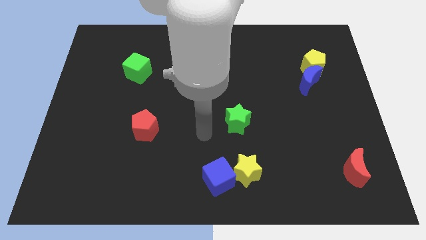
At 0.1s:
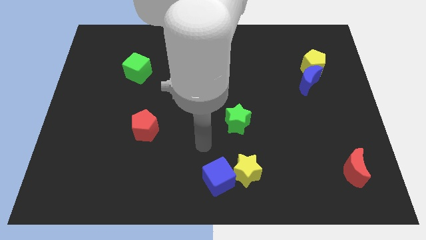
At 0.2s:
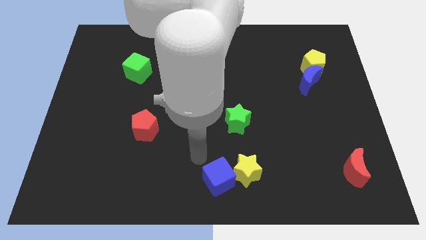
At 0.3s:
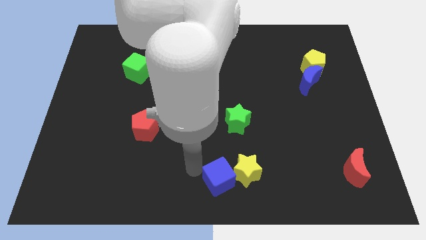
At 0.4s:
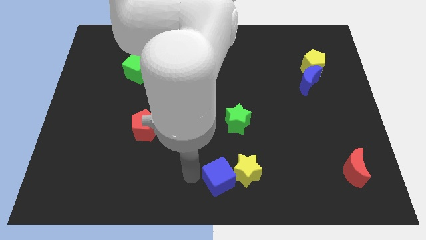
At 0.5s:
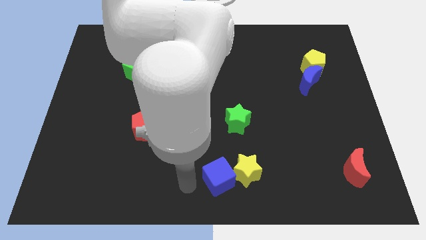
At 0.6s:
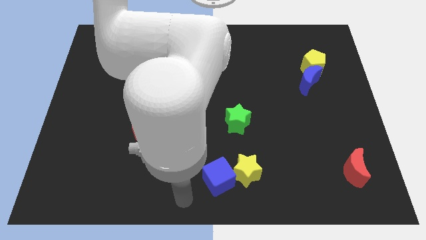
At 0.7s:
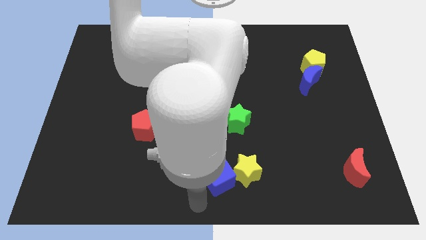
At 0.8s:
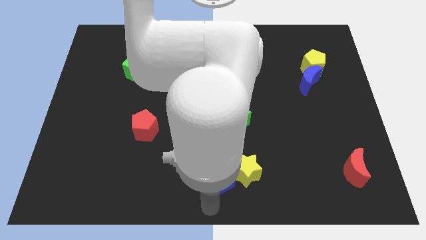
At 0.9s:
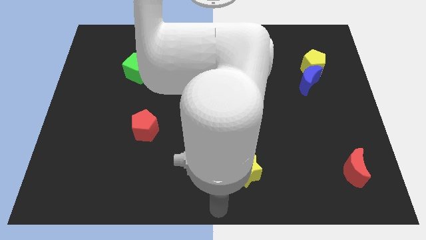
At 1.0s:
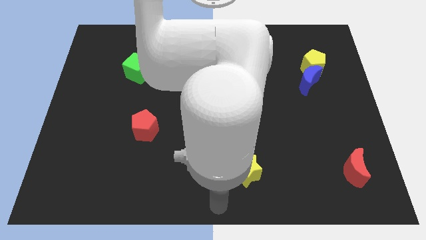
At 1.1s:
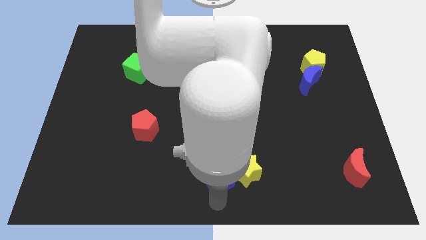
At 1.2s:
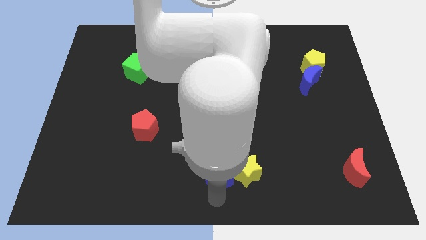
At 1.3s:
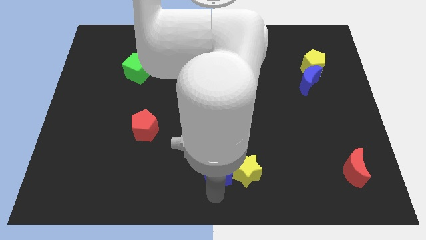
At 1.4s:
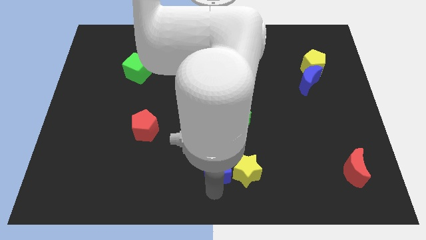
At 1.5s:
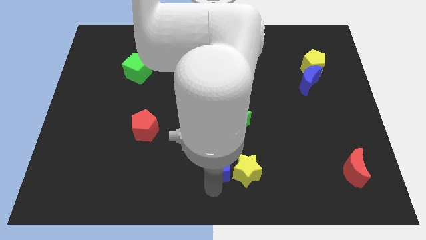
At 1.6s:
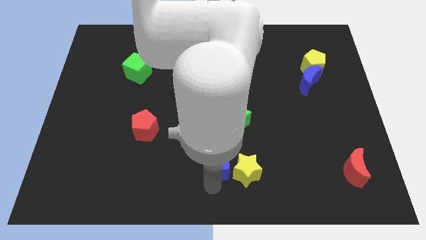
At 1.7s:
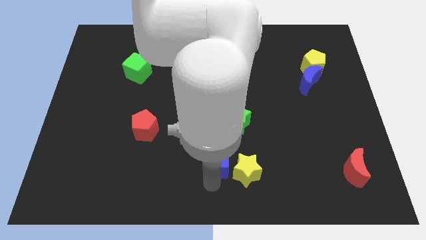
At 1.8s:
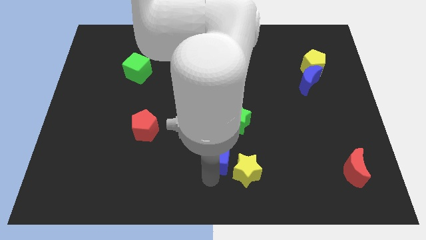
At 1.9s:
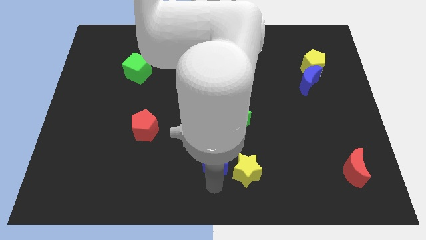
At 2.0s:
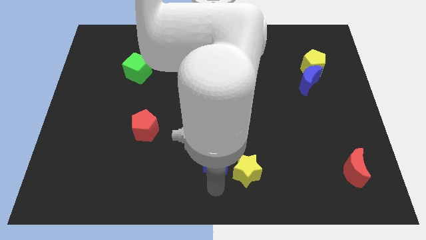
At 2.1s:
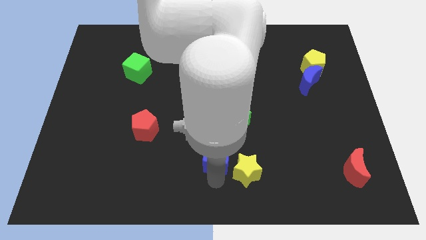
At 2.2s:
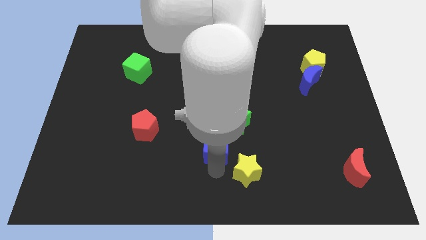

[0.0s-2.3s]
move the blue cube slightly upwards

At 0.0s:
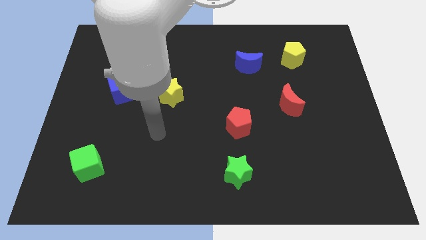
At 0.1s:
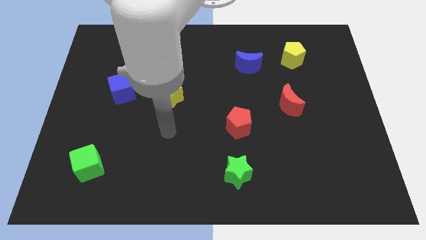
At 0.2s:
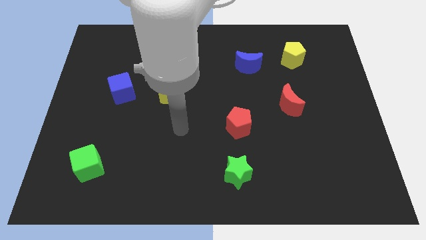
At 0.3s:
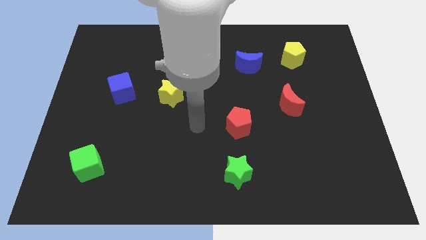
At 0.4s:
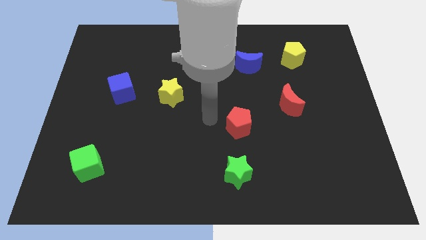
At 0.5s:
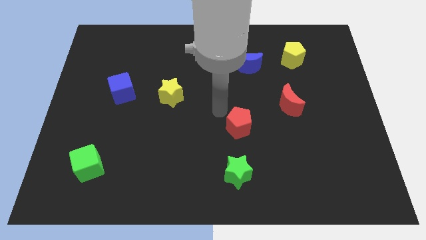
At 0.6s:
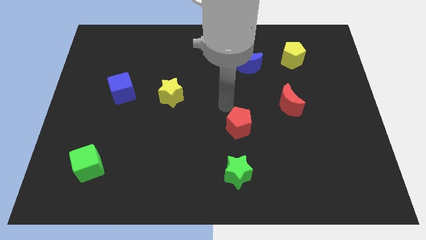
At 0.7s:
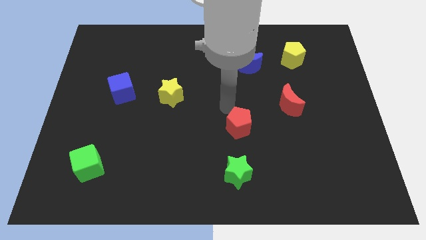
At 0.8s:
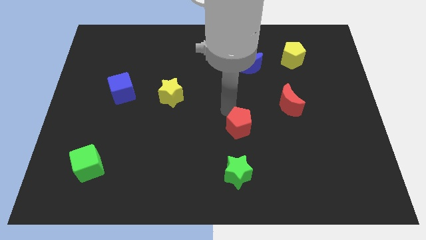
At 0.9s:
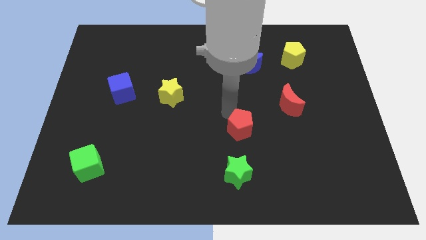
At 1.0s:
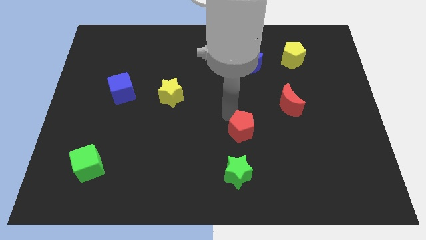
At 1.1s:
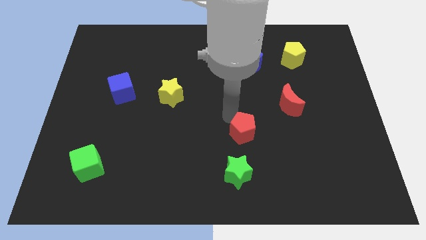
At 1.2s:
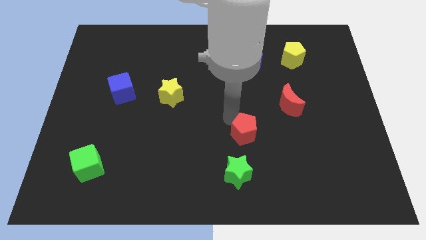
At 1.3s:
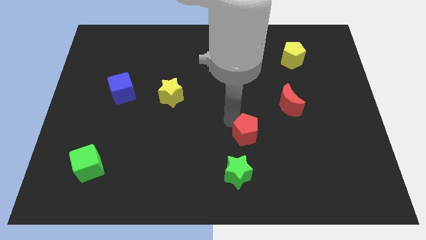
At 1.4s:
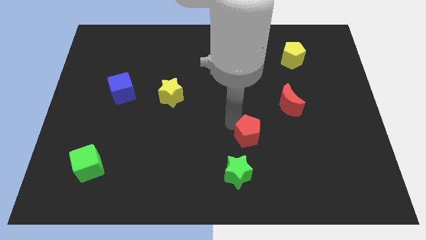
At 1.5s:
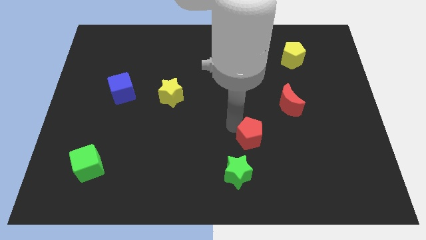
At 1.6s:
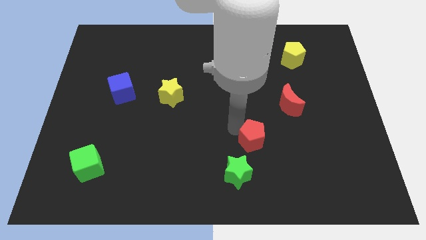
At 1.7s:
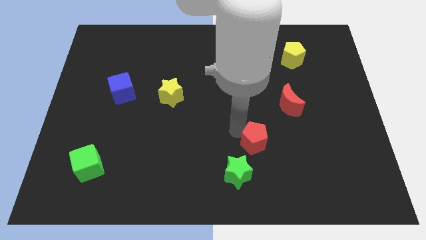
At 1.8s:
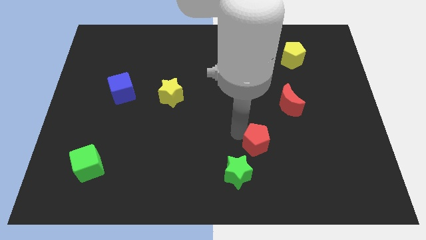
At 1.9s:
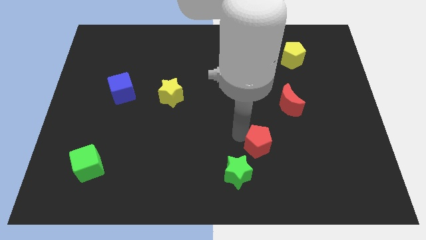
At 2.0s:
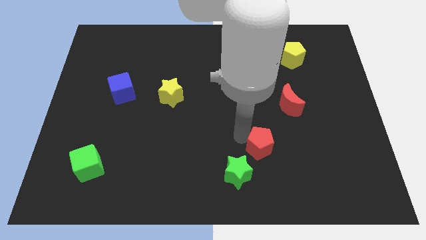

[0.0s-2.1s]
slide the red pentagon somewhat downwards and then to the right

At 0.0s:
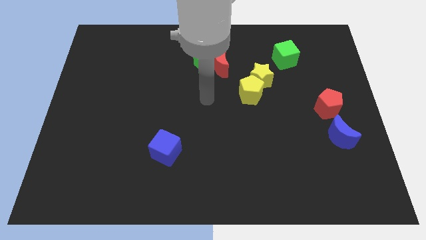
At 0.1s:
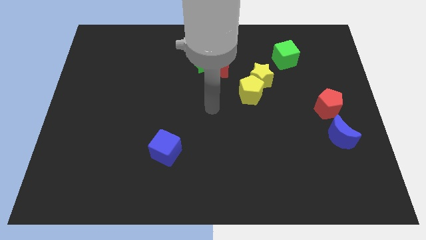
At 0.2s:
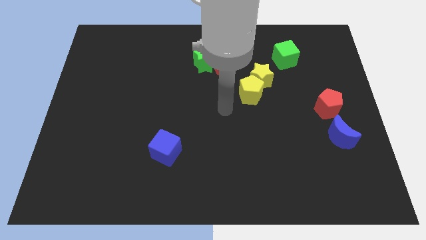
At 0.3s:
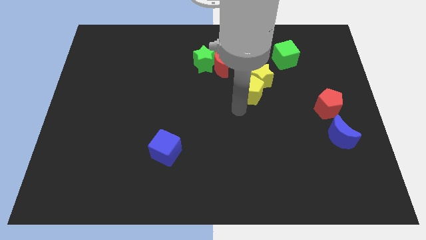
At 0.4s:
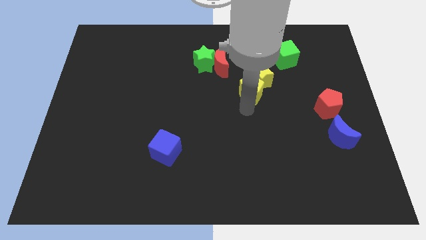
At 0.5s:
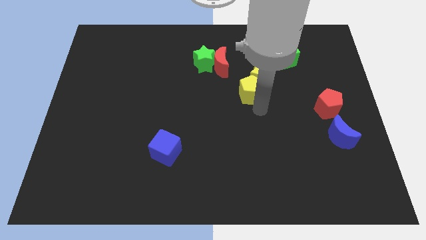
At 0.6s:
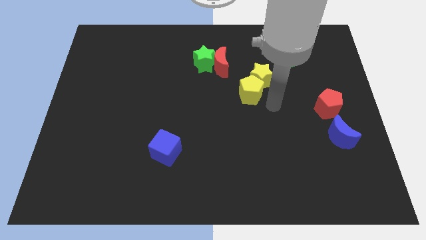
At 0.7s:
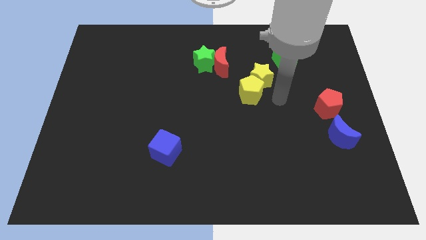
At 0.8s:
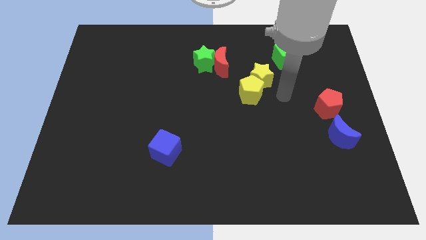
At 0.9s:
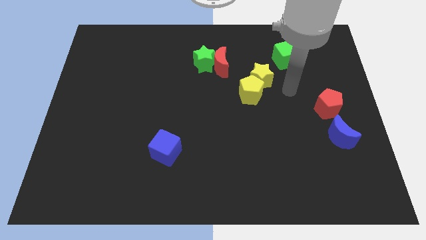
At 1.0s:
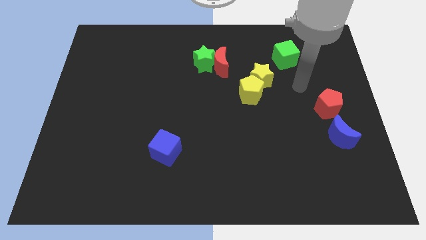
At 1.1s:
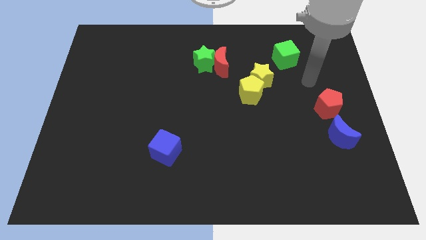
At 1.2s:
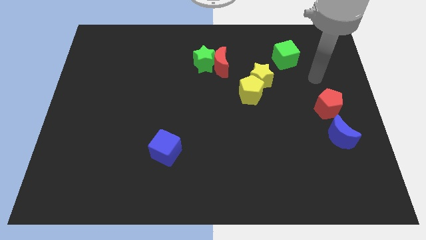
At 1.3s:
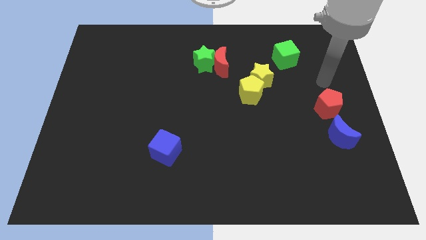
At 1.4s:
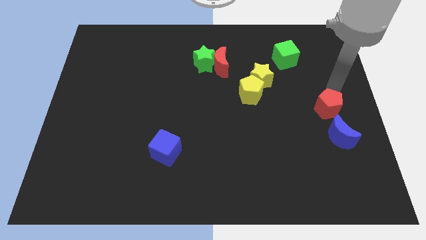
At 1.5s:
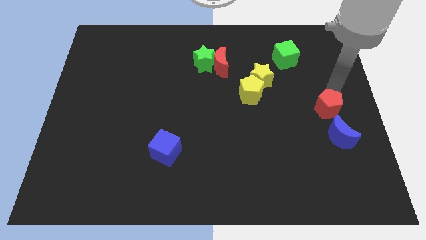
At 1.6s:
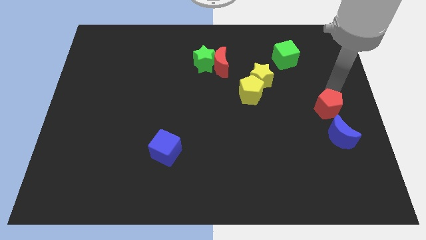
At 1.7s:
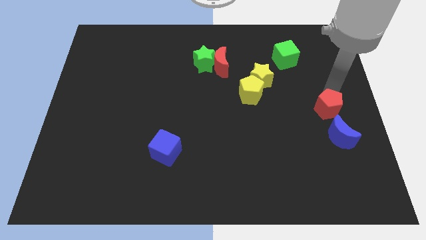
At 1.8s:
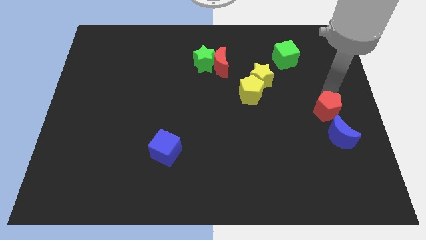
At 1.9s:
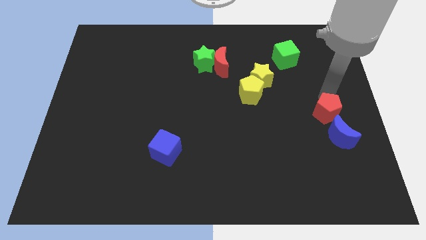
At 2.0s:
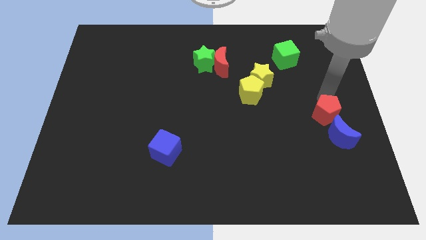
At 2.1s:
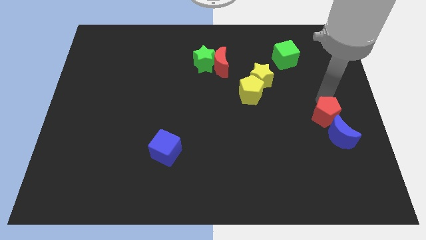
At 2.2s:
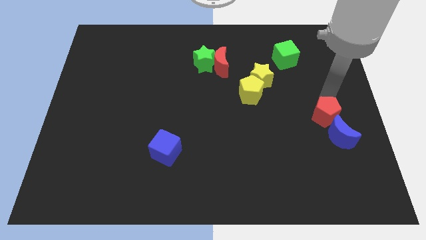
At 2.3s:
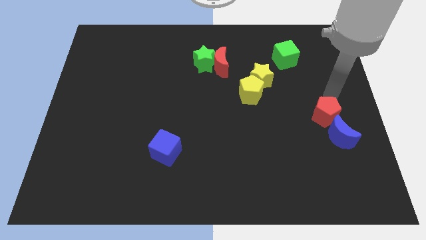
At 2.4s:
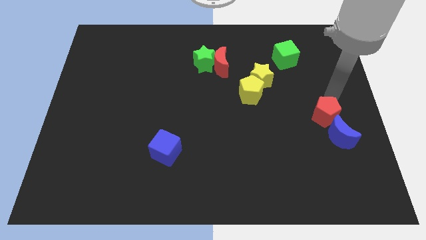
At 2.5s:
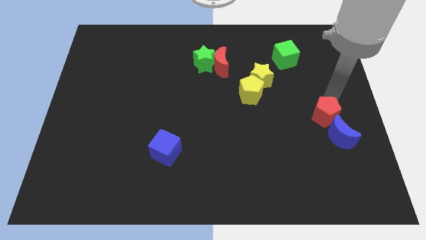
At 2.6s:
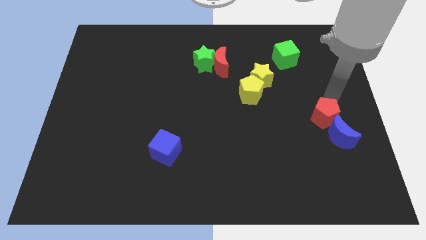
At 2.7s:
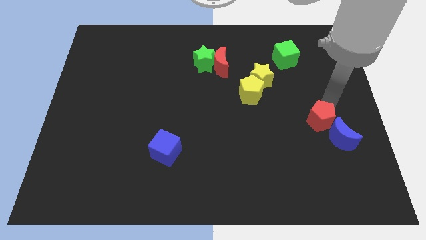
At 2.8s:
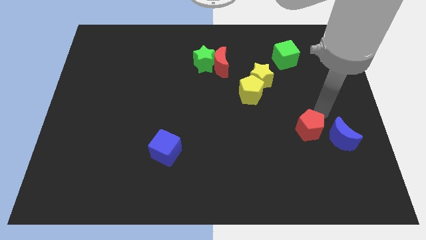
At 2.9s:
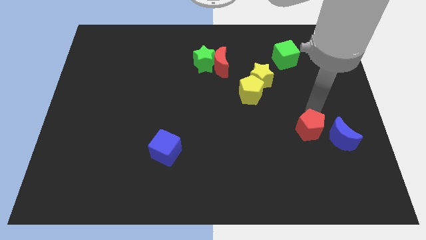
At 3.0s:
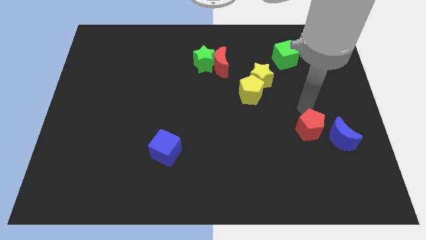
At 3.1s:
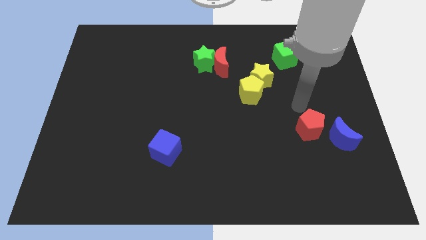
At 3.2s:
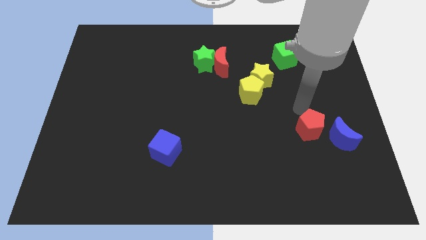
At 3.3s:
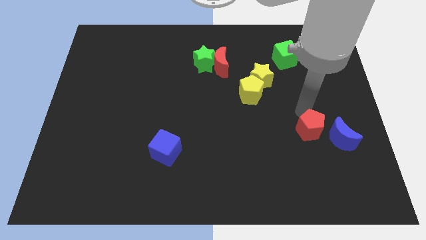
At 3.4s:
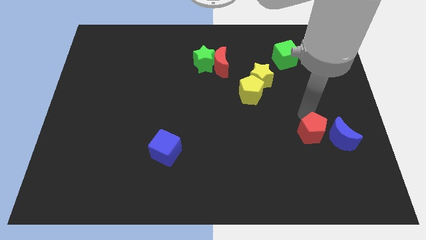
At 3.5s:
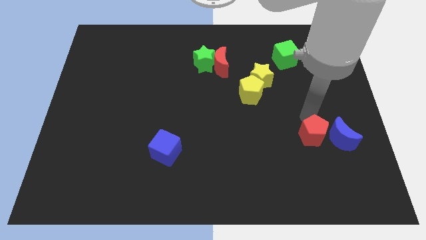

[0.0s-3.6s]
slightly push the red pentagon down
